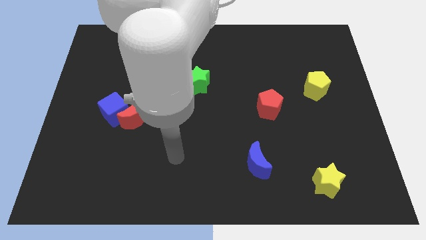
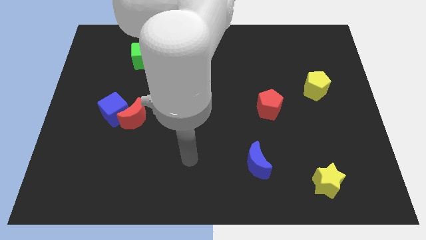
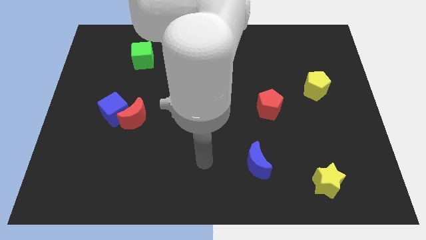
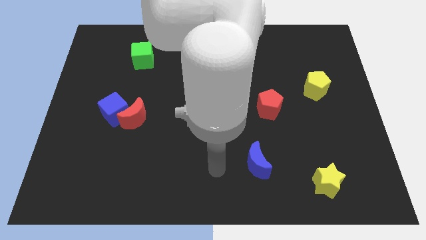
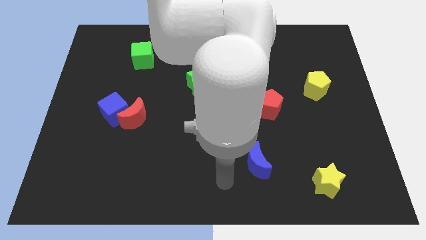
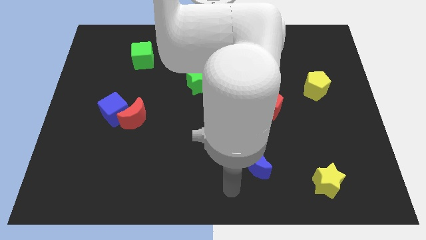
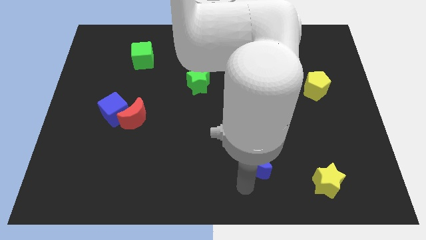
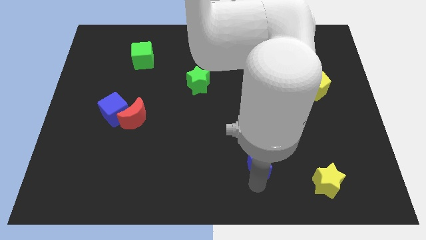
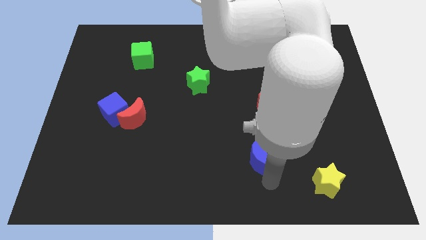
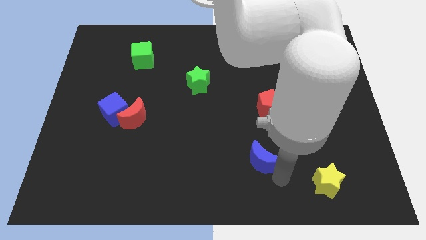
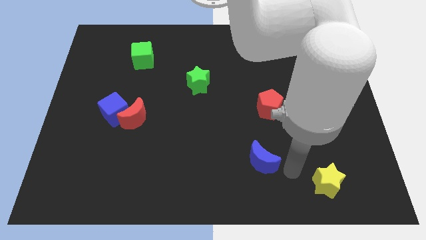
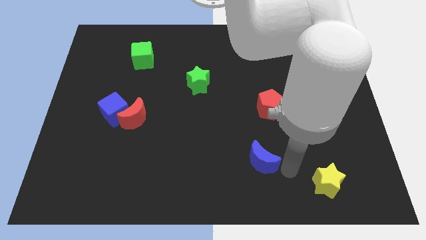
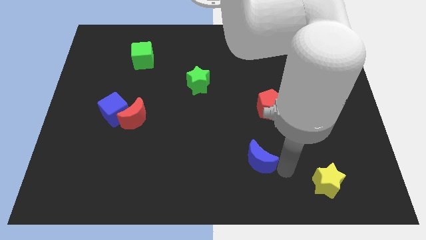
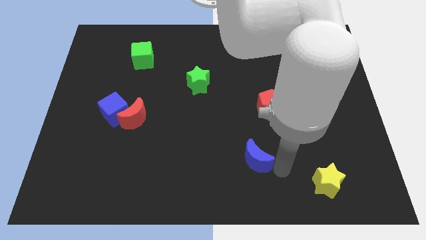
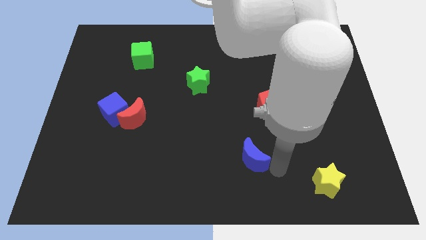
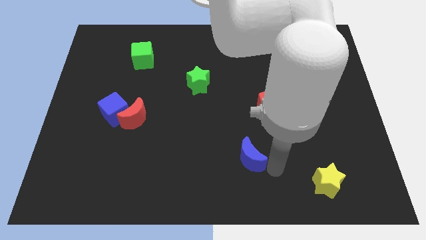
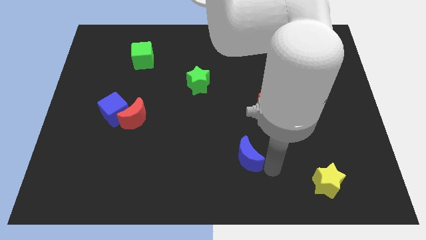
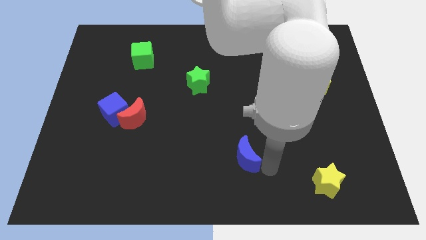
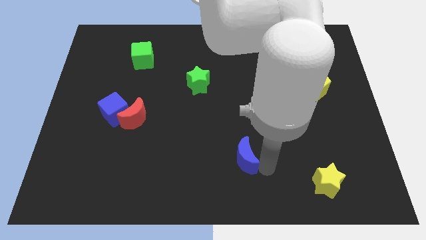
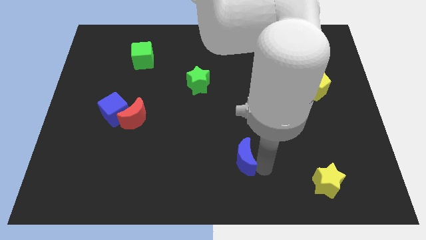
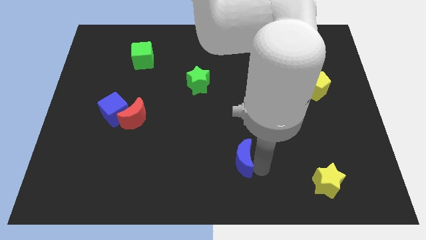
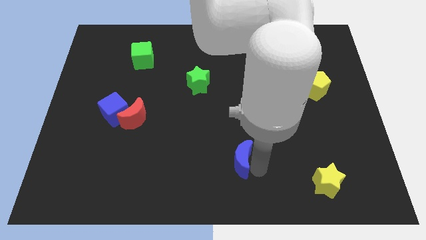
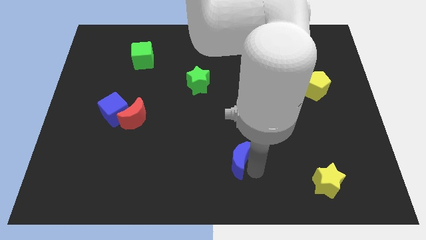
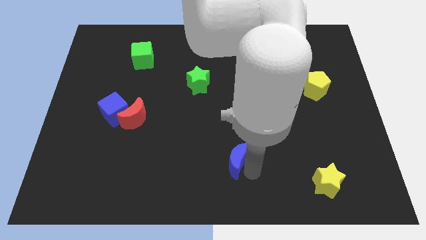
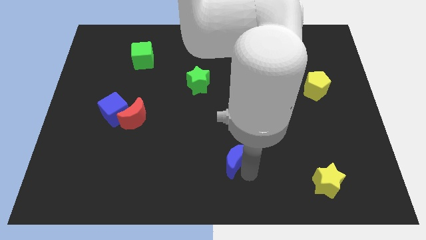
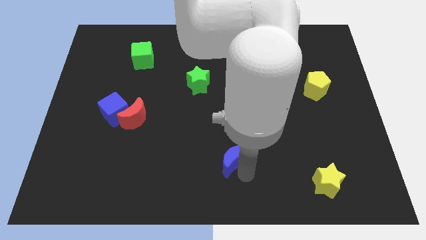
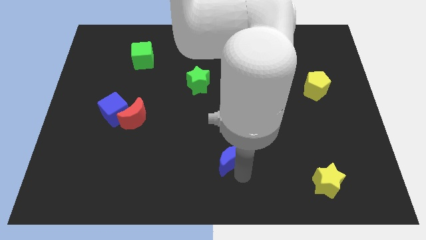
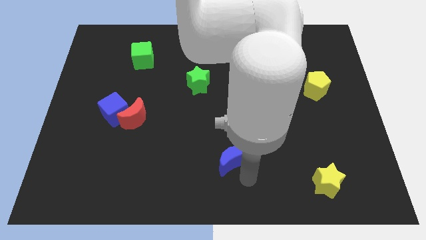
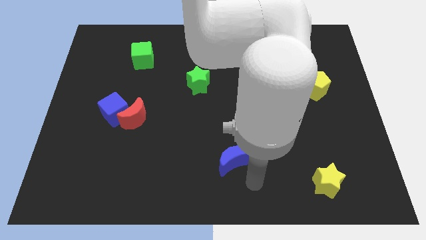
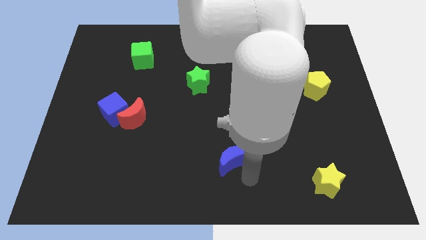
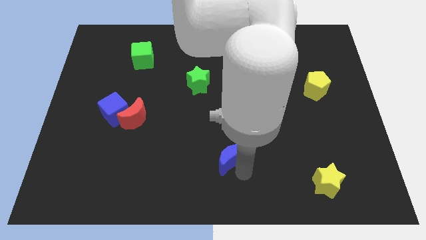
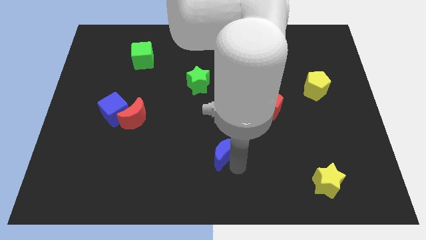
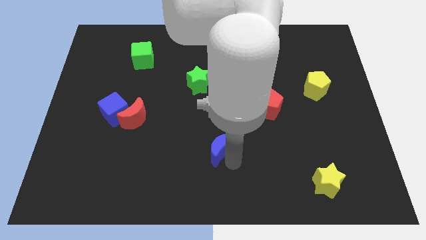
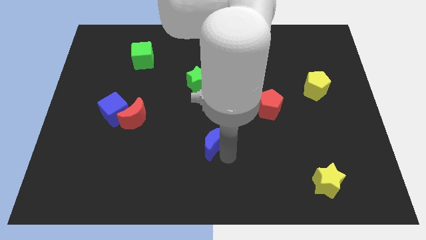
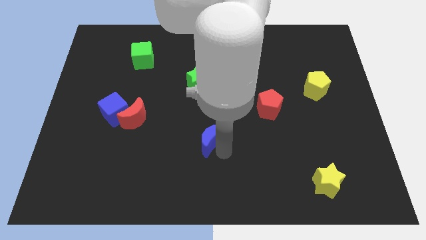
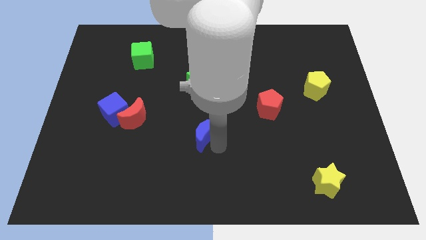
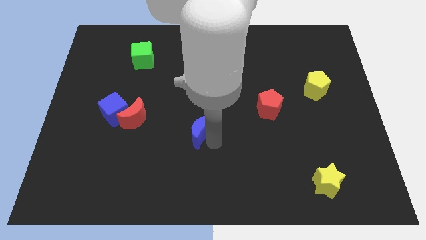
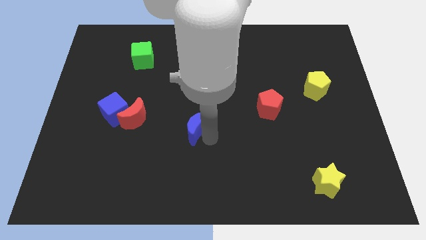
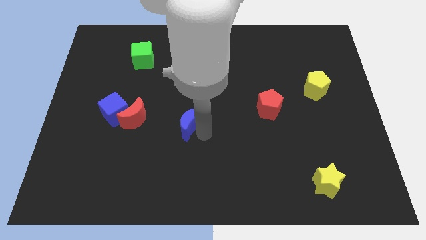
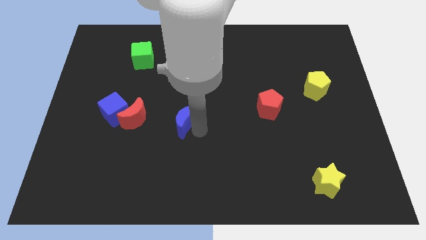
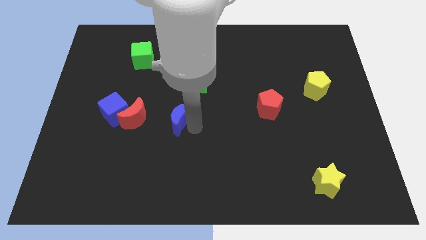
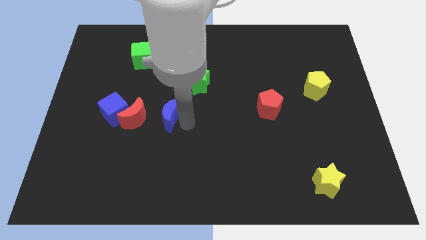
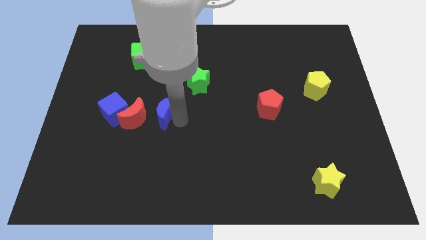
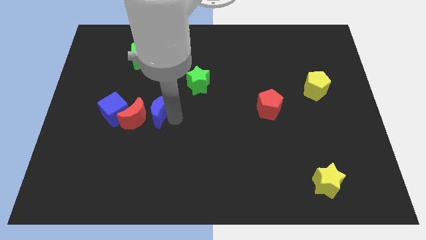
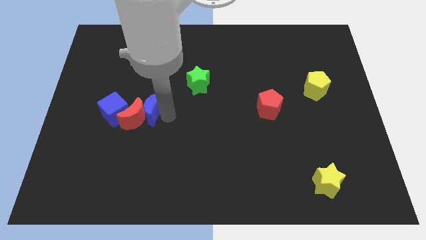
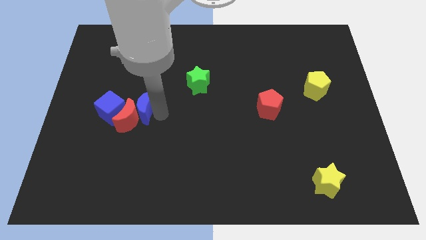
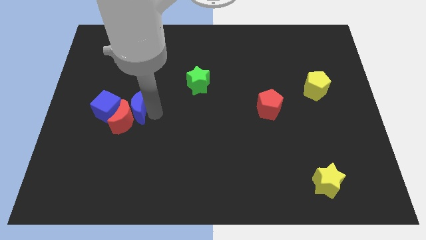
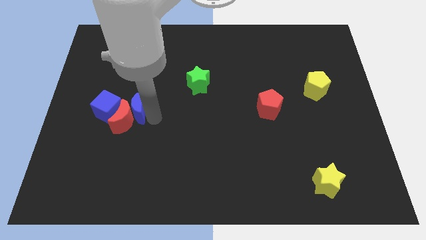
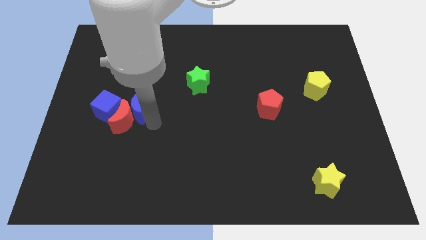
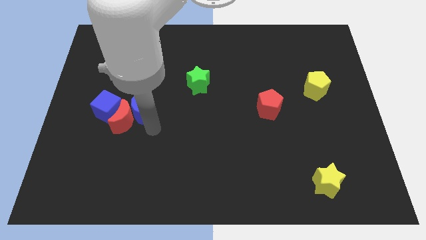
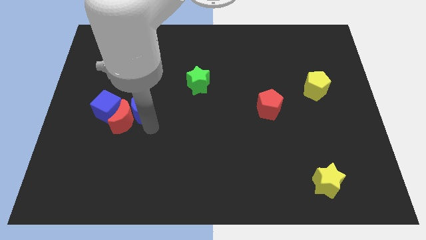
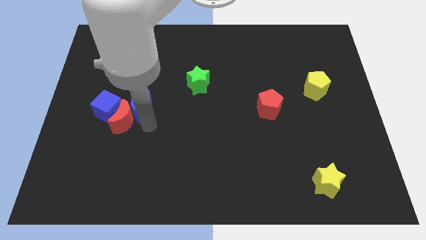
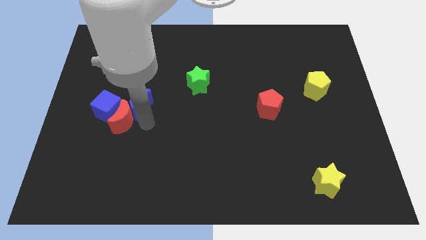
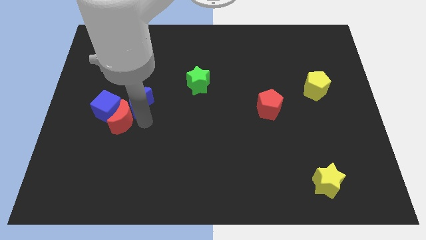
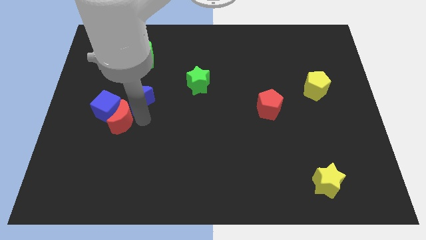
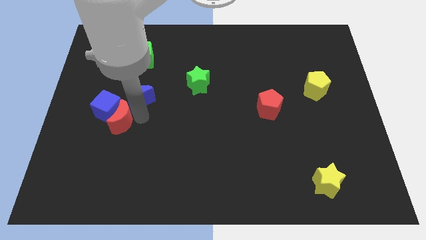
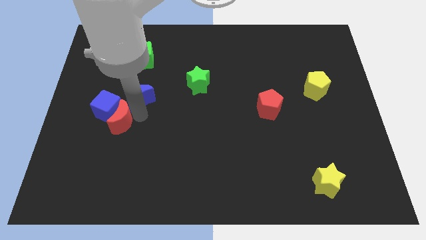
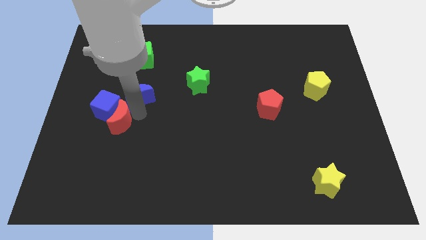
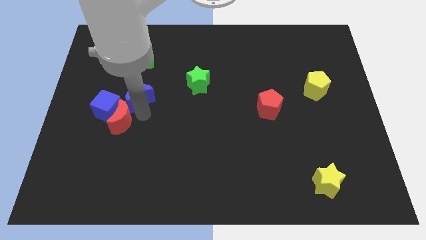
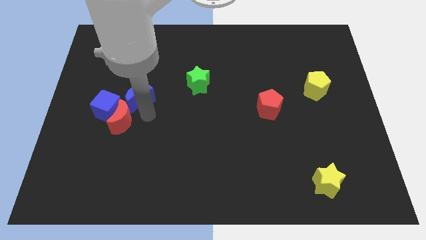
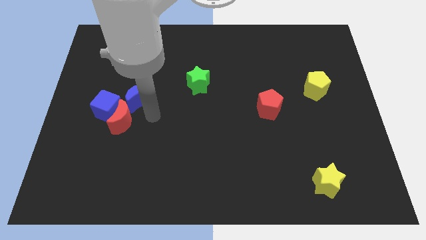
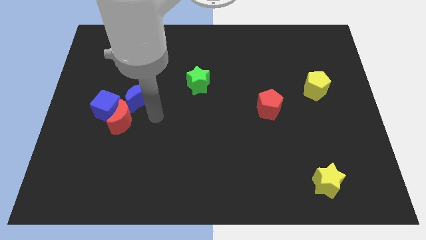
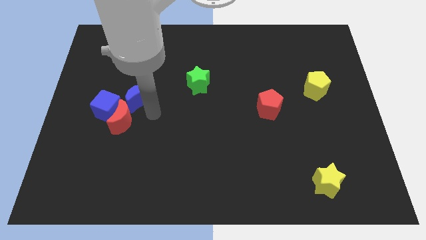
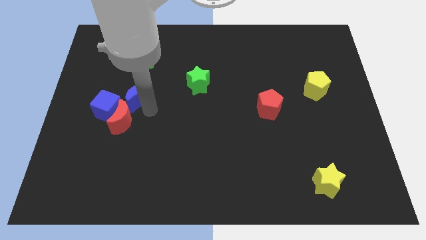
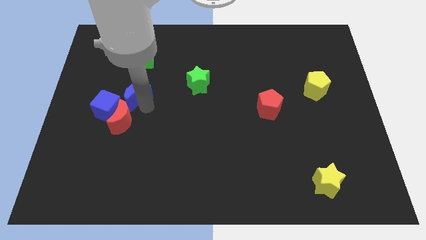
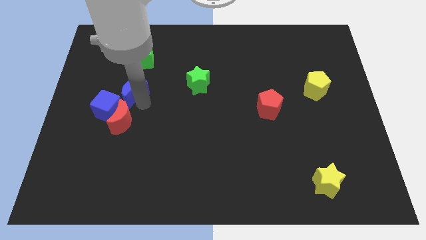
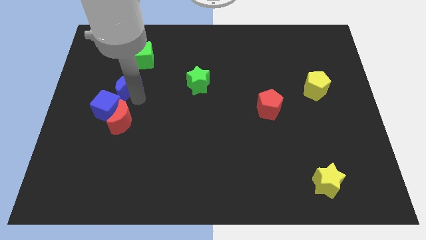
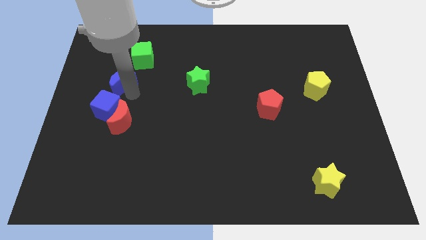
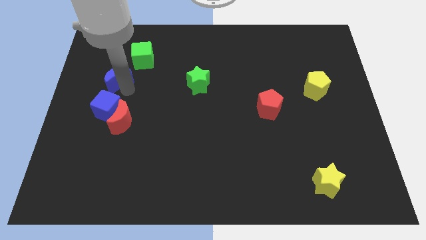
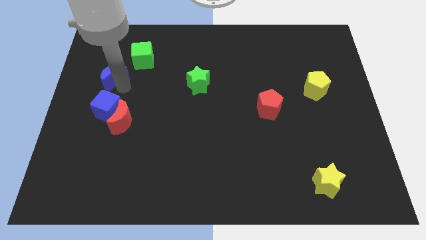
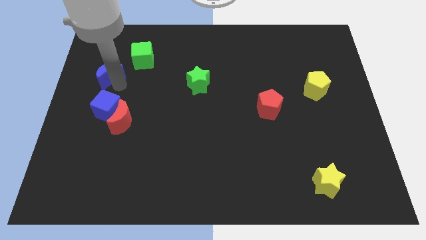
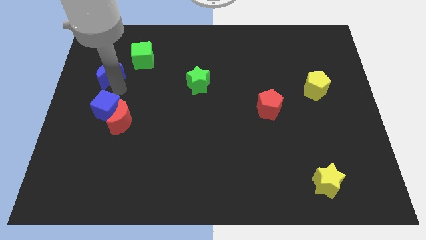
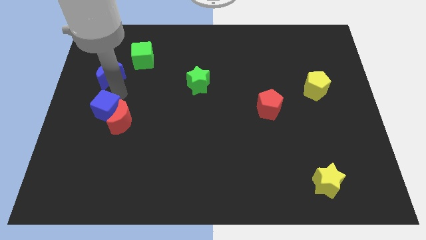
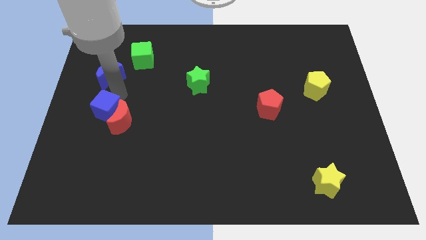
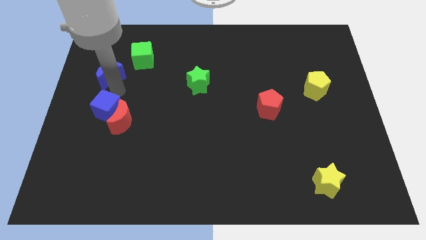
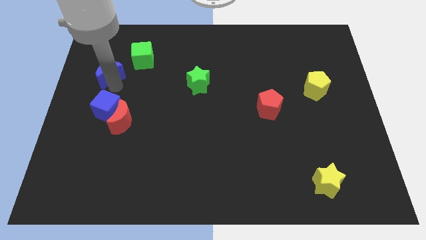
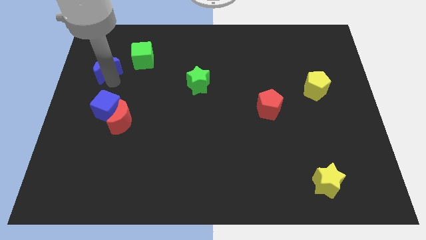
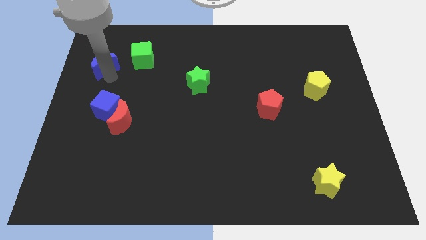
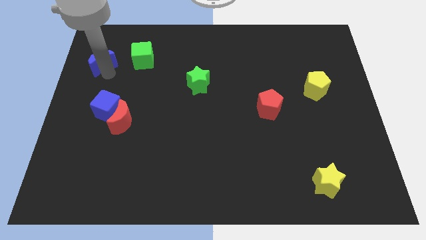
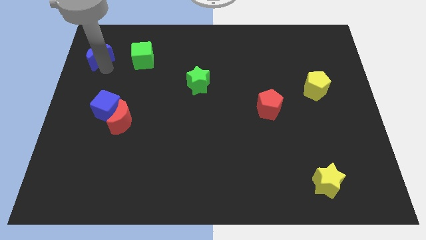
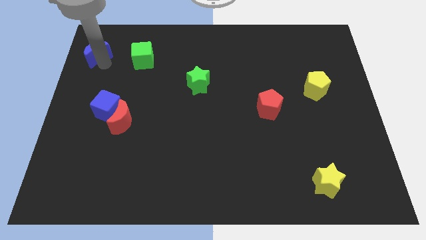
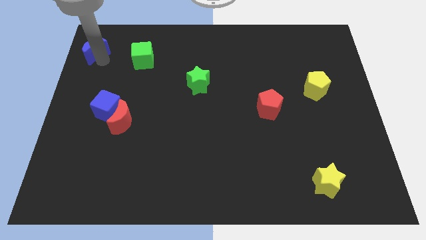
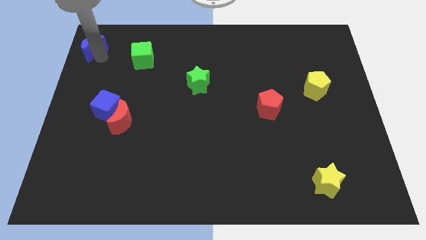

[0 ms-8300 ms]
put the blue moon to the upper left corner
